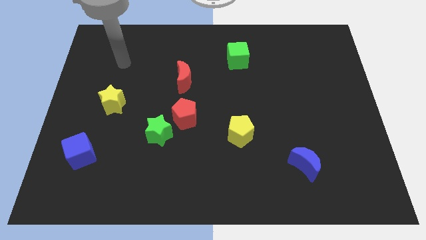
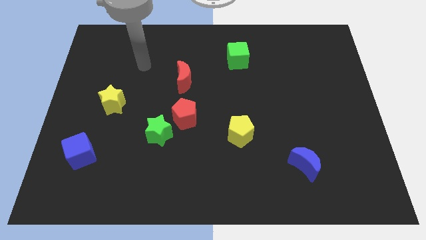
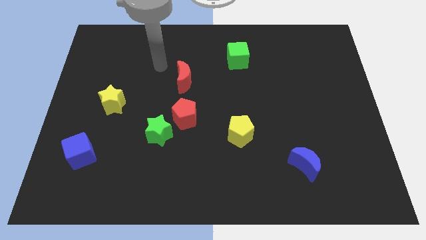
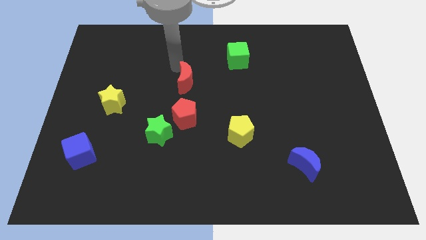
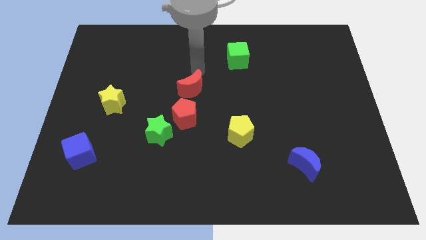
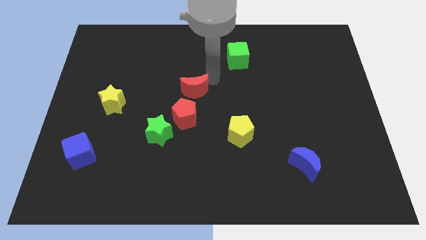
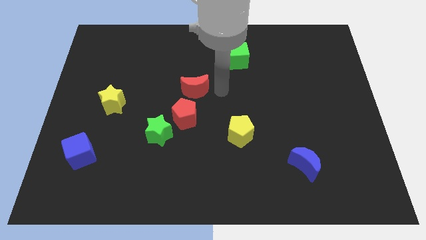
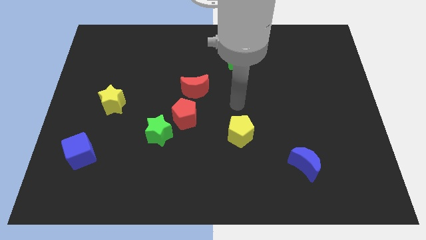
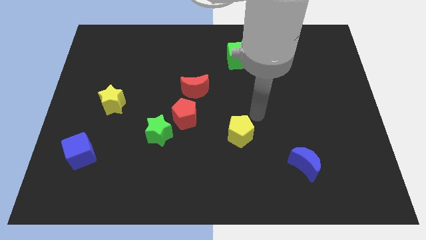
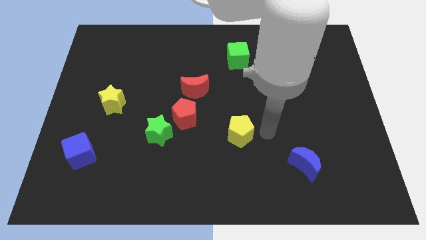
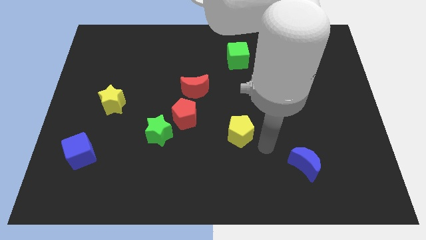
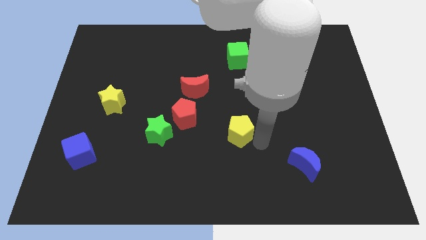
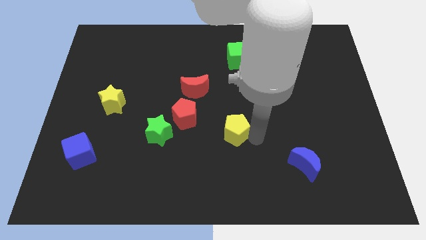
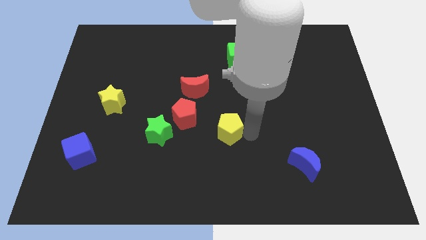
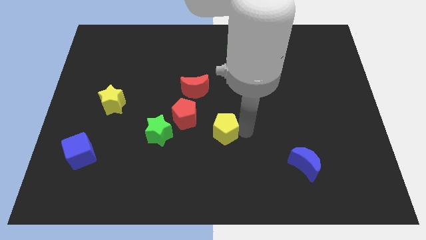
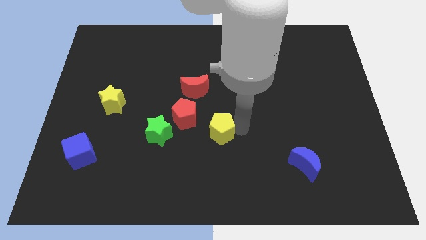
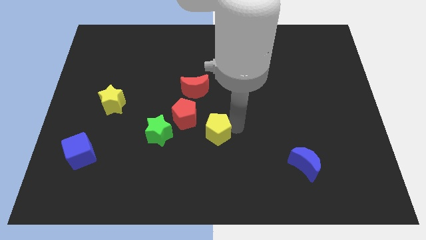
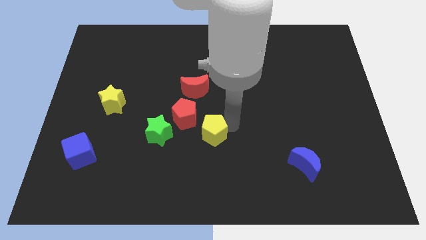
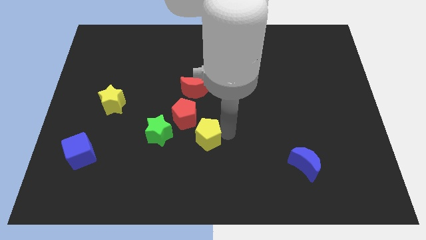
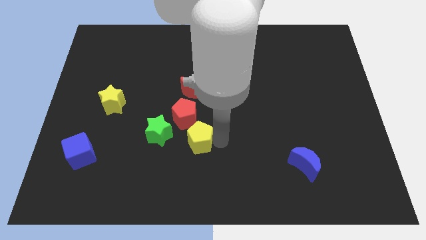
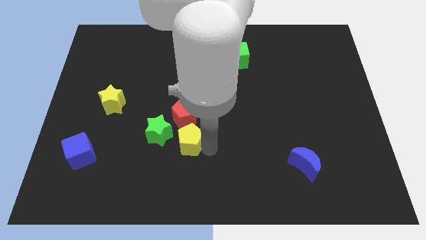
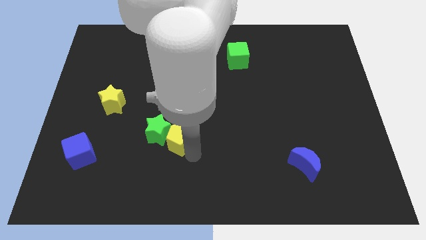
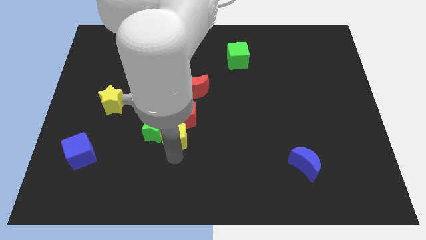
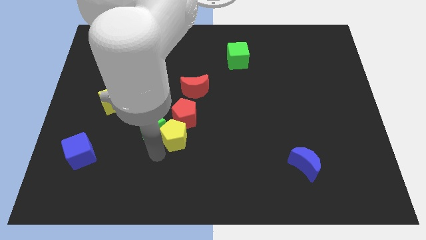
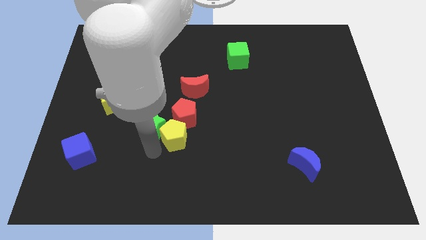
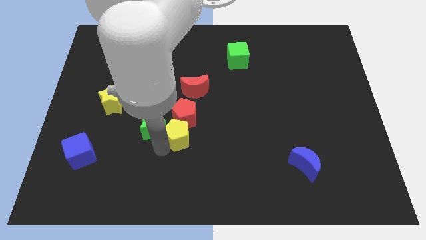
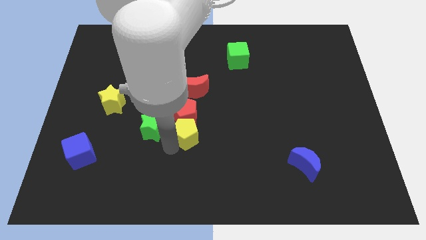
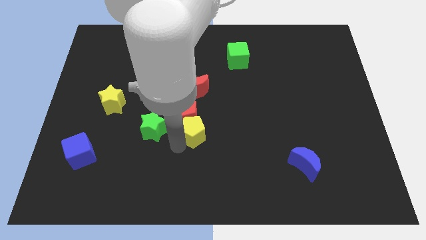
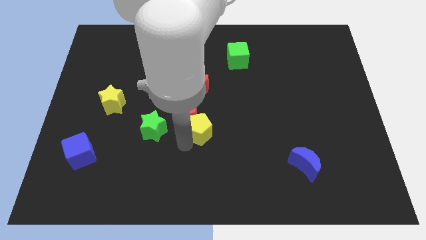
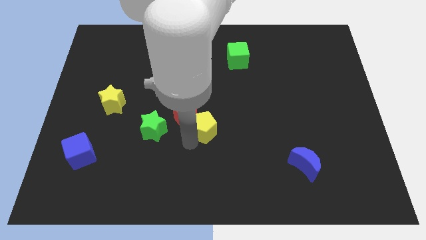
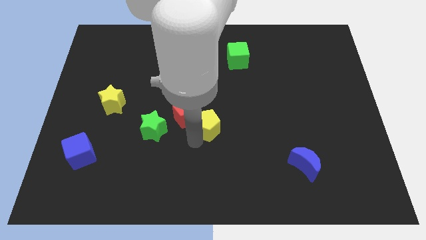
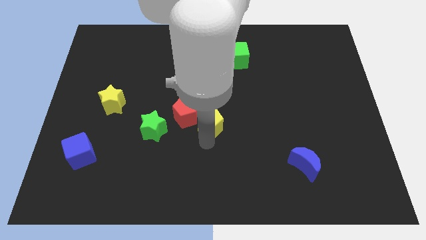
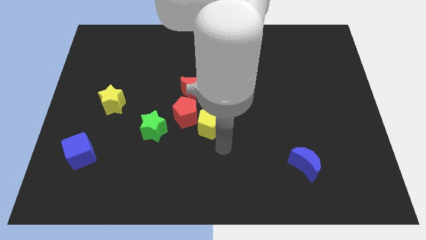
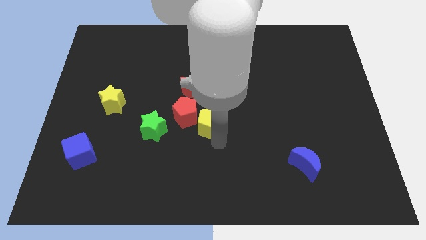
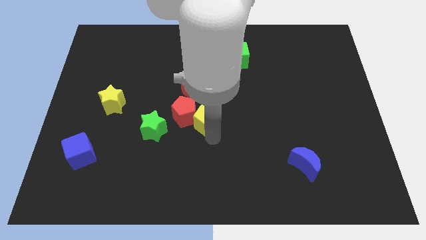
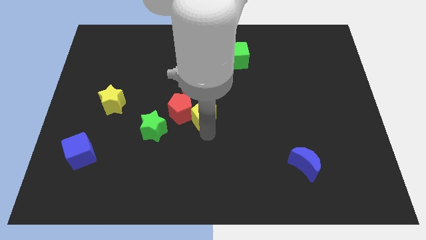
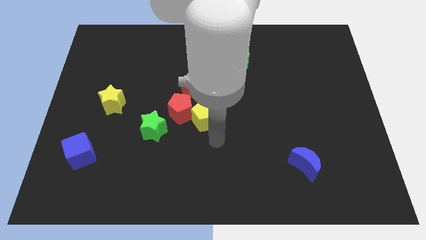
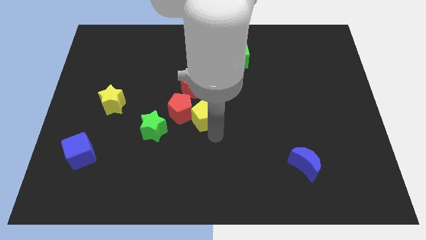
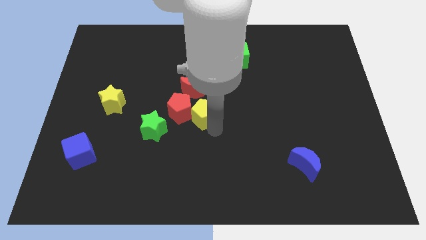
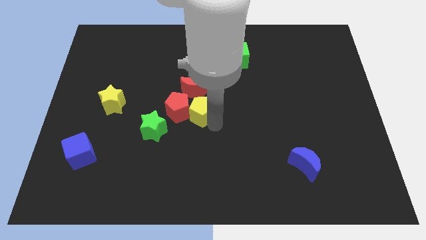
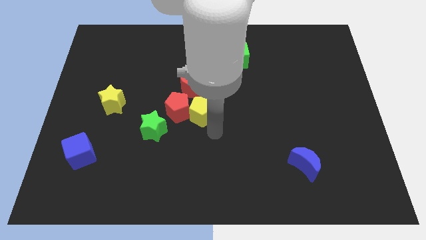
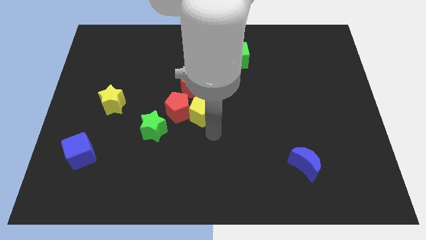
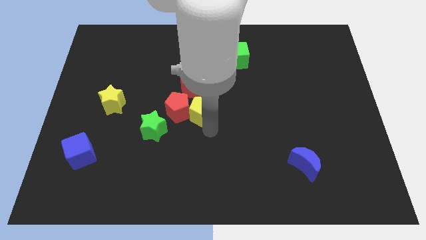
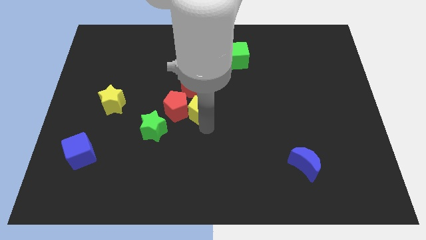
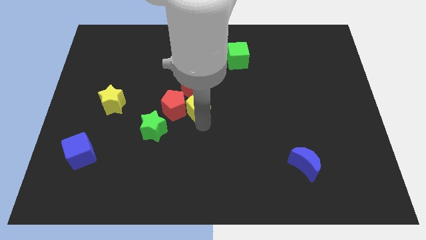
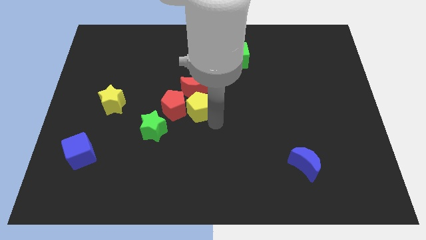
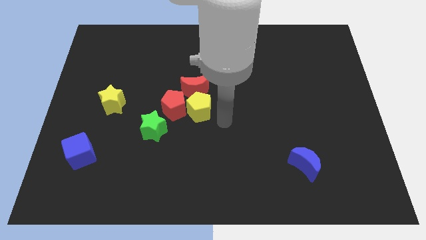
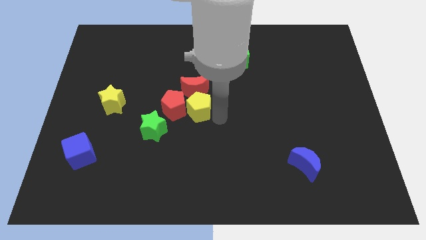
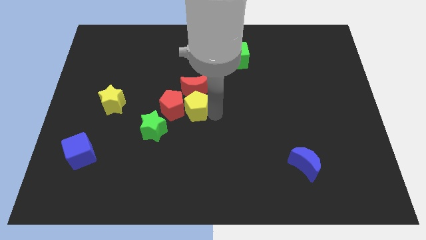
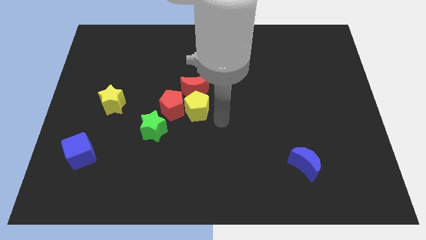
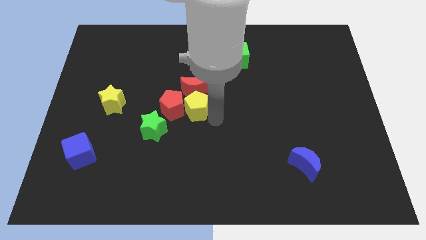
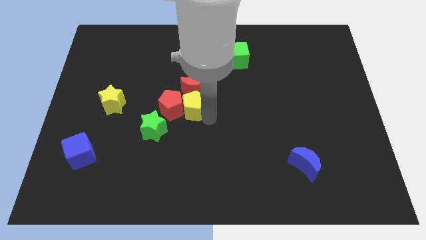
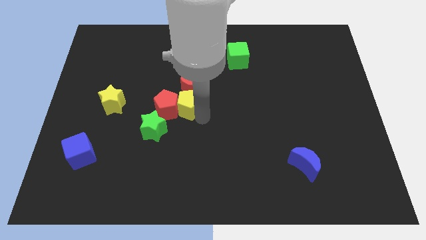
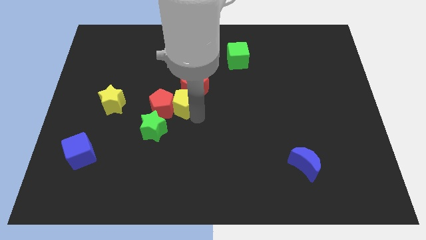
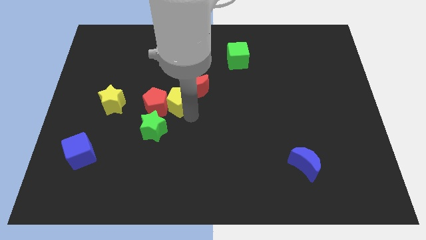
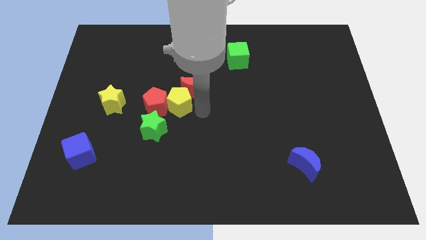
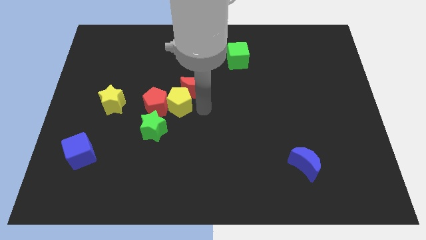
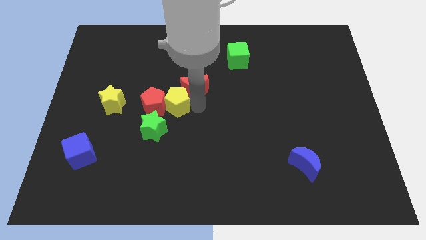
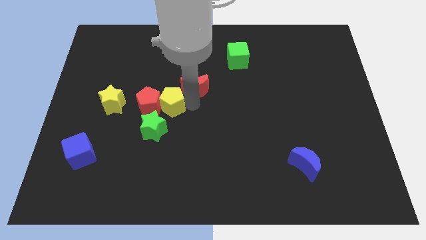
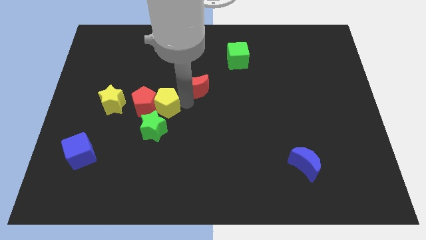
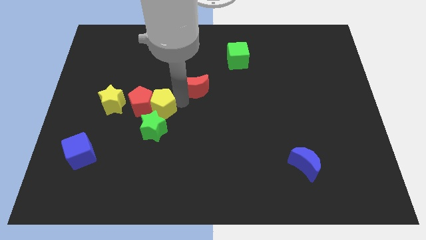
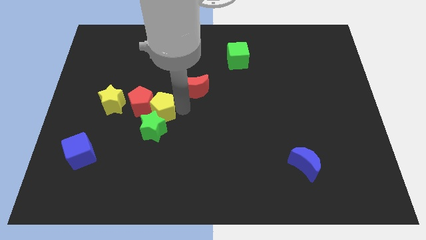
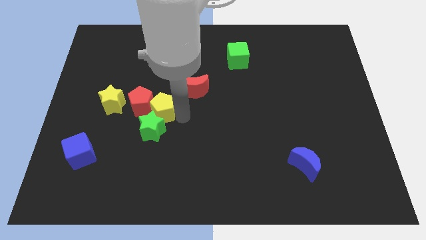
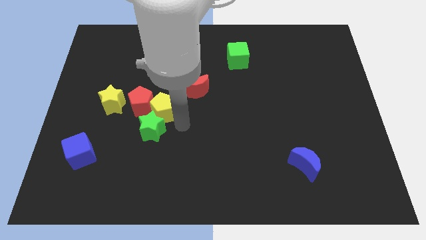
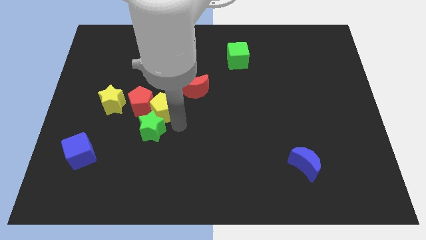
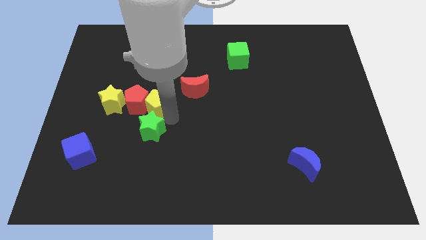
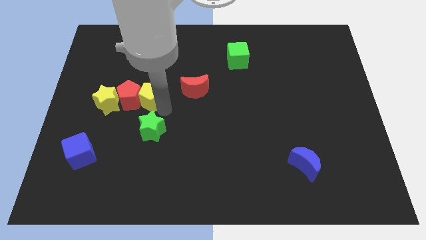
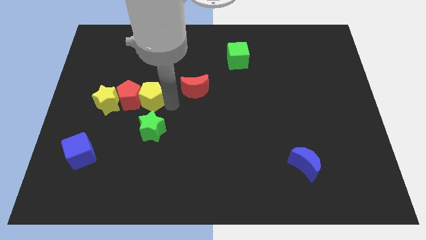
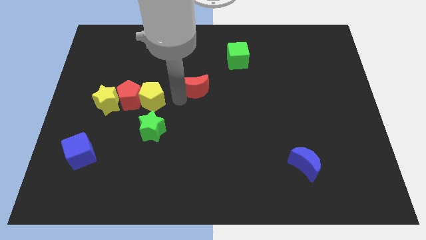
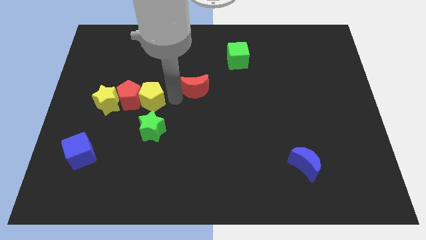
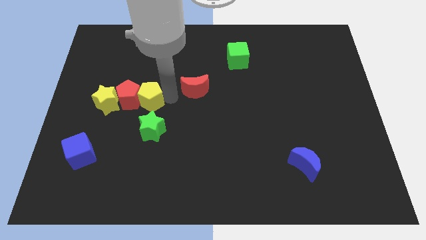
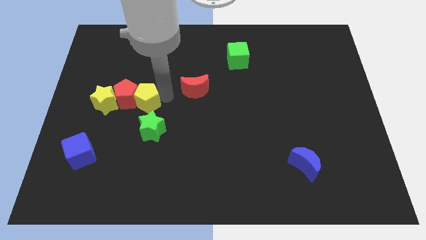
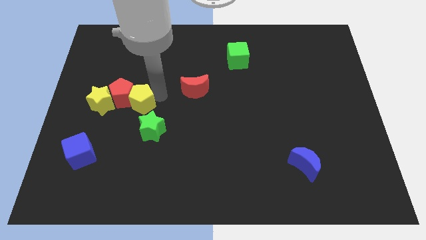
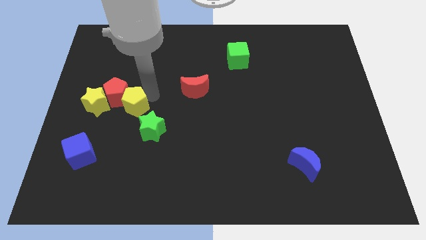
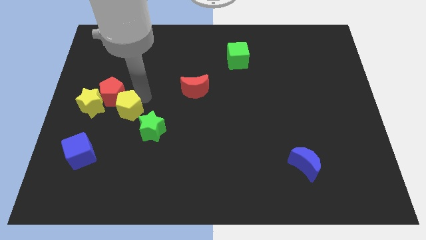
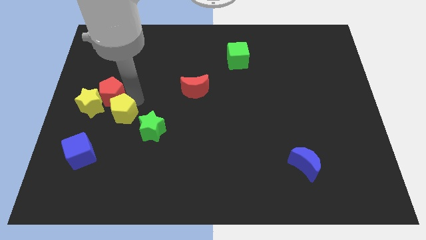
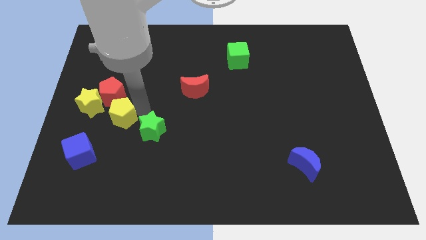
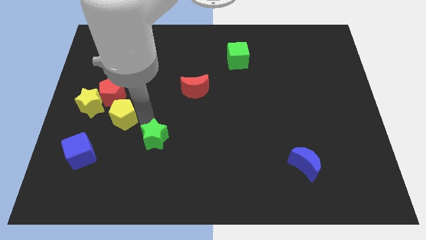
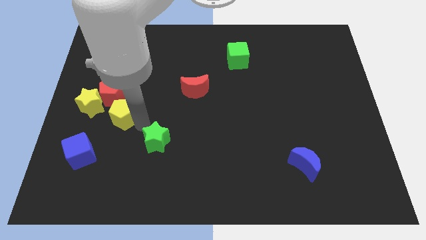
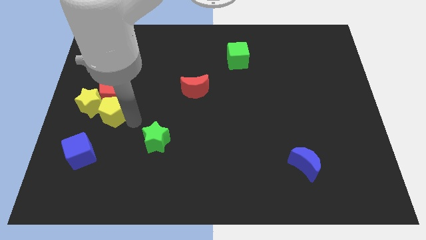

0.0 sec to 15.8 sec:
put the yellow pentagon next to the yellow star

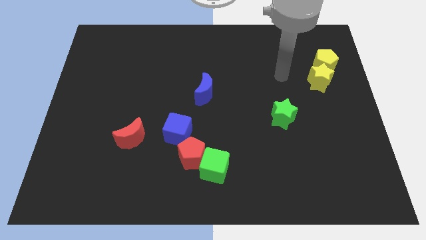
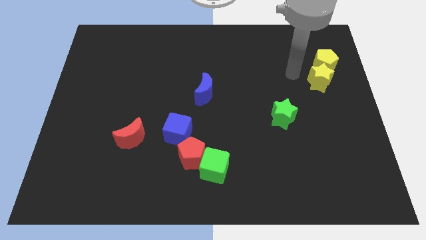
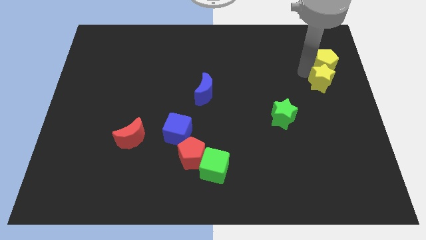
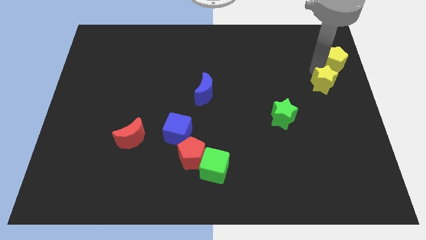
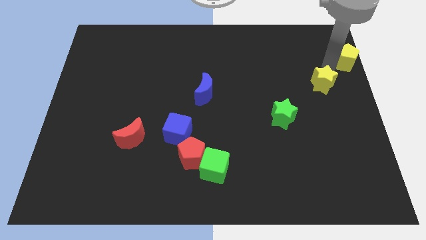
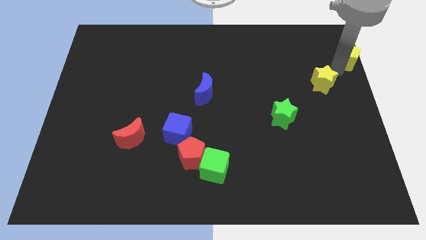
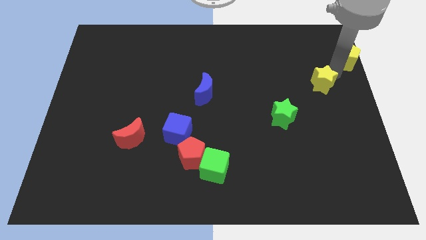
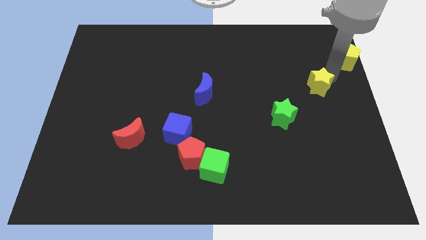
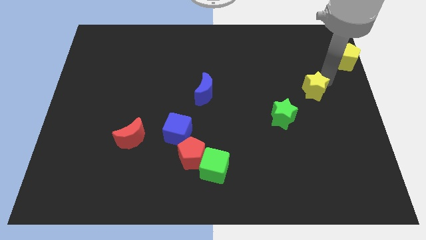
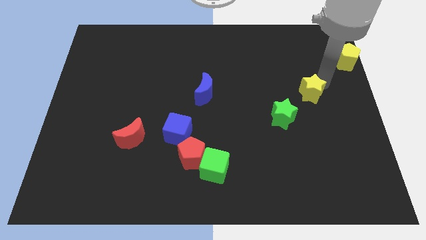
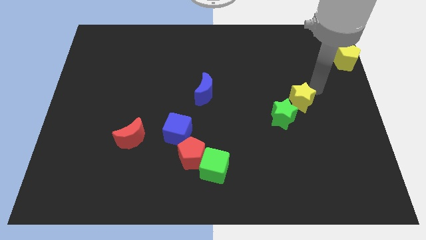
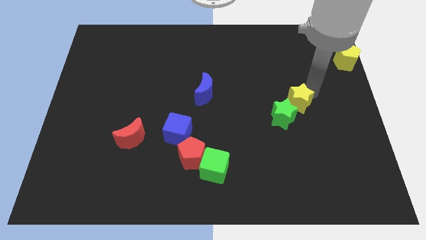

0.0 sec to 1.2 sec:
push the yellow star next to the green star
